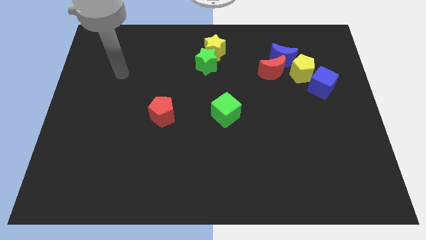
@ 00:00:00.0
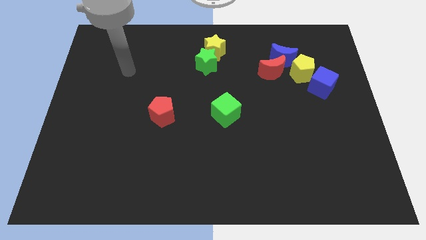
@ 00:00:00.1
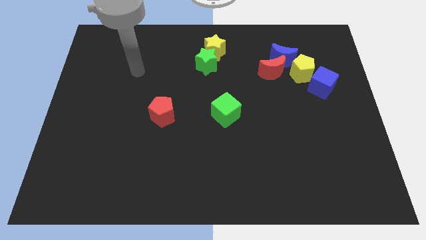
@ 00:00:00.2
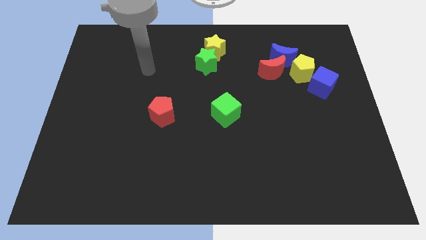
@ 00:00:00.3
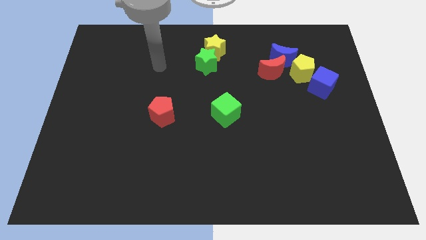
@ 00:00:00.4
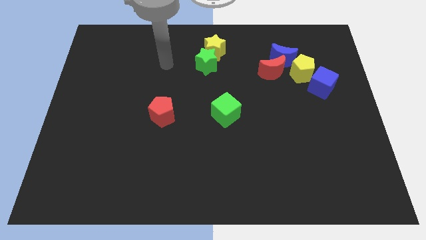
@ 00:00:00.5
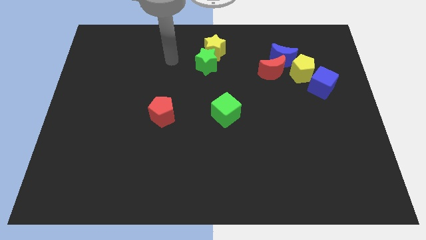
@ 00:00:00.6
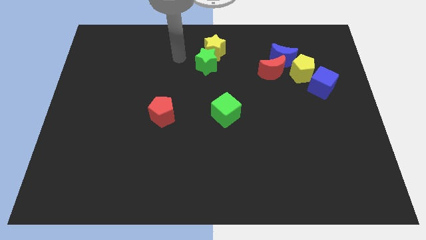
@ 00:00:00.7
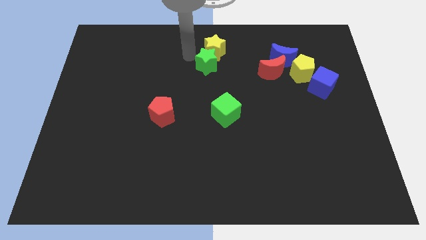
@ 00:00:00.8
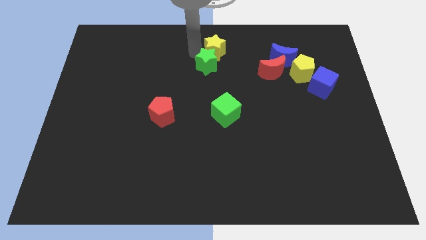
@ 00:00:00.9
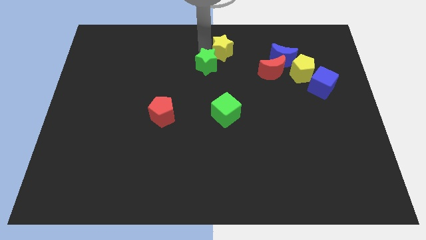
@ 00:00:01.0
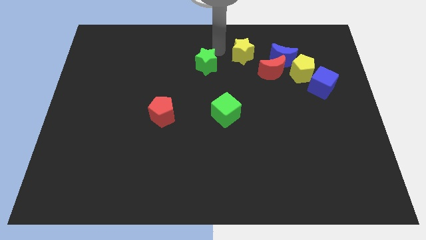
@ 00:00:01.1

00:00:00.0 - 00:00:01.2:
pull the green star apart from the yellow star

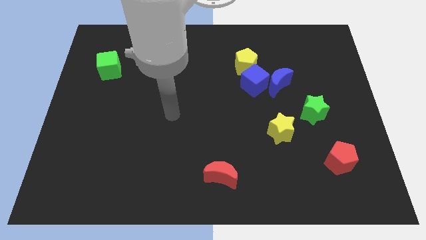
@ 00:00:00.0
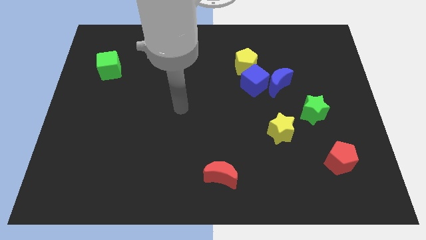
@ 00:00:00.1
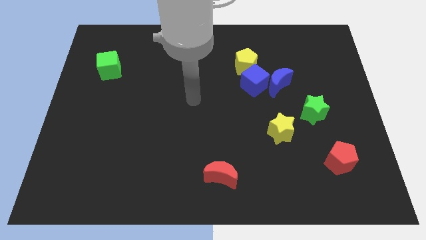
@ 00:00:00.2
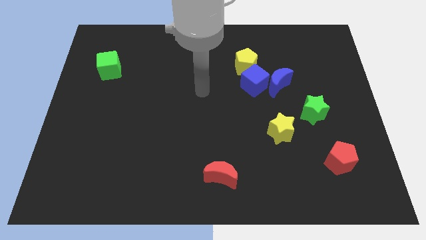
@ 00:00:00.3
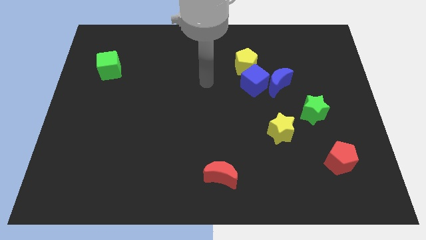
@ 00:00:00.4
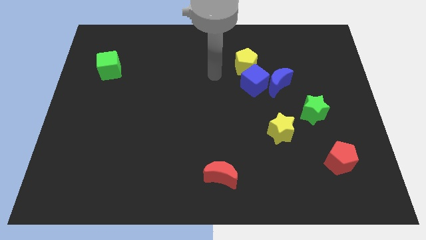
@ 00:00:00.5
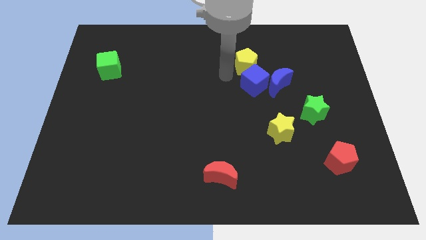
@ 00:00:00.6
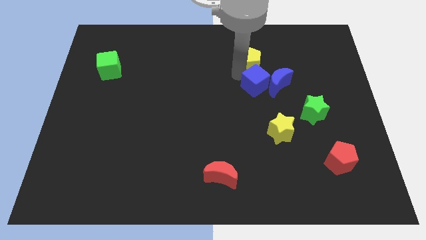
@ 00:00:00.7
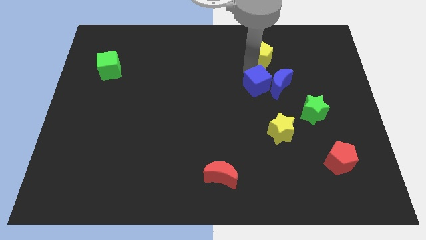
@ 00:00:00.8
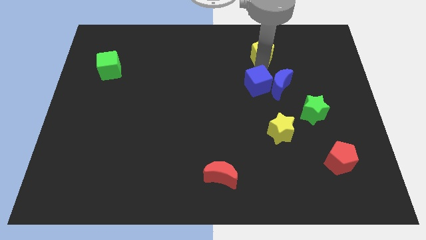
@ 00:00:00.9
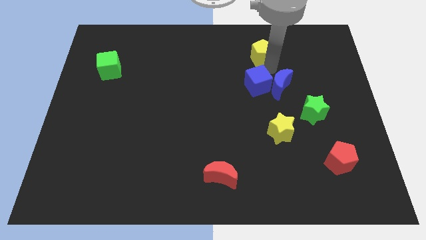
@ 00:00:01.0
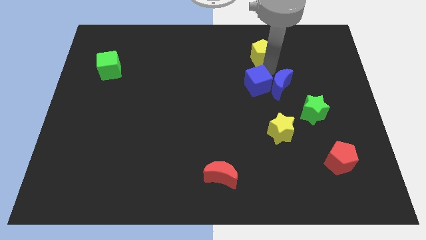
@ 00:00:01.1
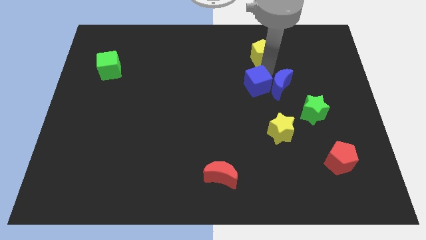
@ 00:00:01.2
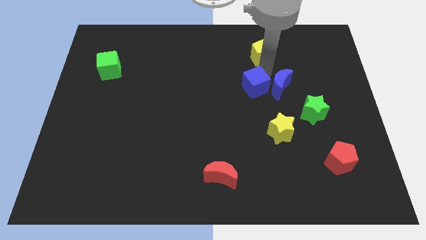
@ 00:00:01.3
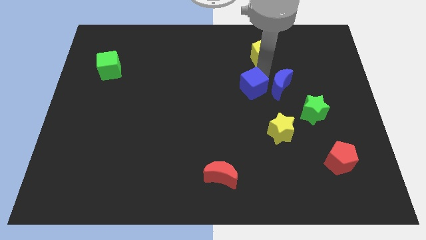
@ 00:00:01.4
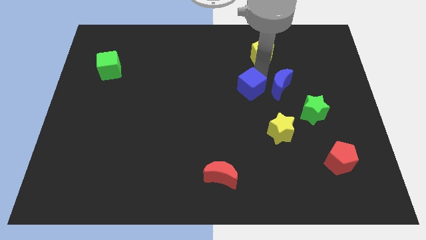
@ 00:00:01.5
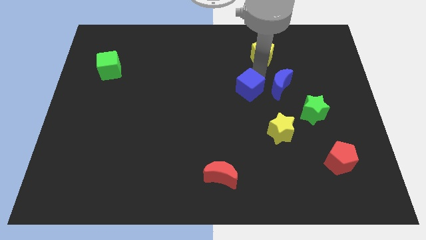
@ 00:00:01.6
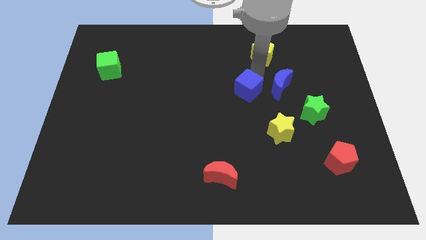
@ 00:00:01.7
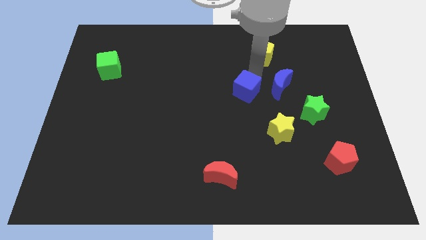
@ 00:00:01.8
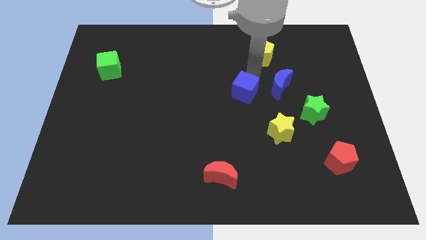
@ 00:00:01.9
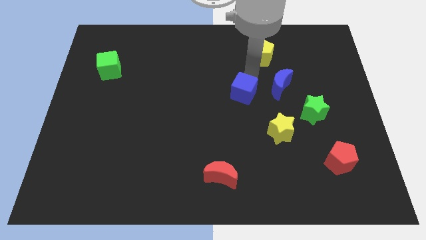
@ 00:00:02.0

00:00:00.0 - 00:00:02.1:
pull the blue cube apart from the blue moon and yellow pentagon

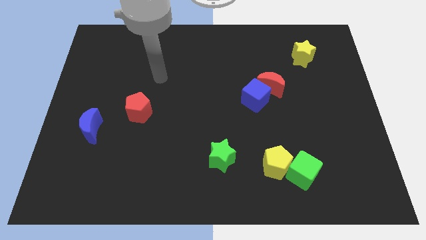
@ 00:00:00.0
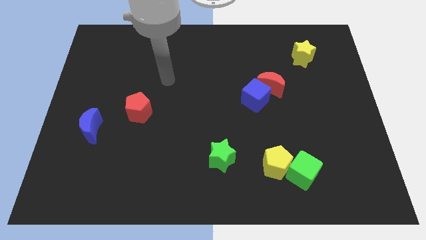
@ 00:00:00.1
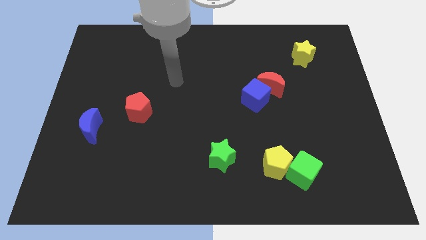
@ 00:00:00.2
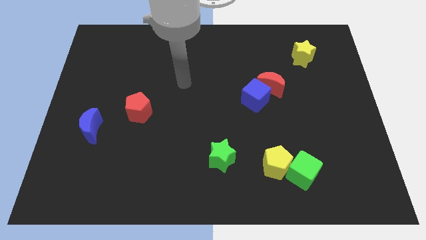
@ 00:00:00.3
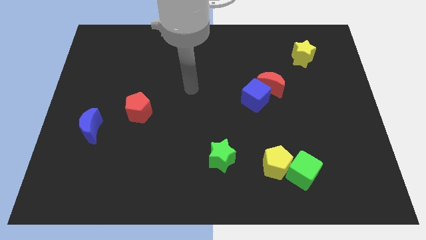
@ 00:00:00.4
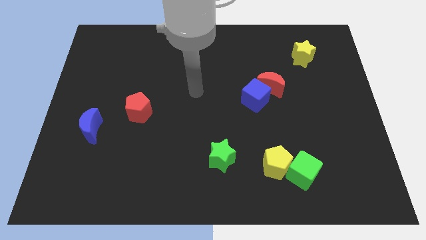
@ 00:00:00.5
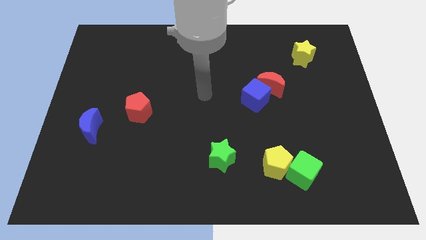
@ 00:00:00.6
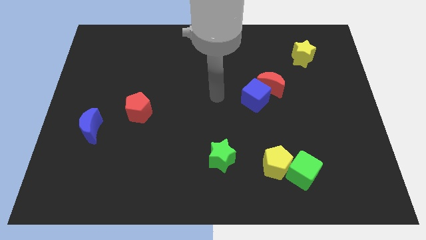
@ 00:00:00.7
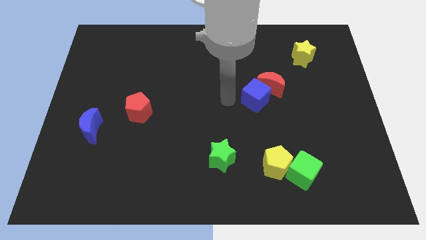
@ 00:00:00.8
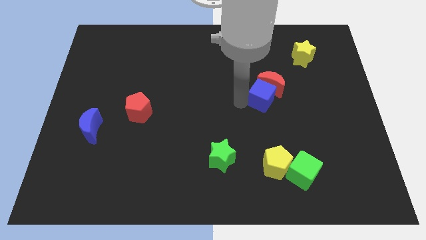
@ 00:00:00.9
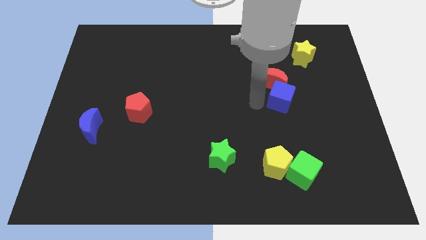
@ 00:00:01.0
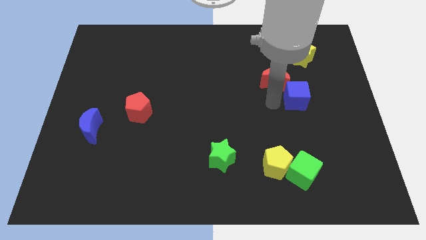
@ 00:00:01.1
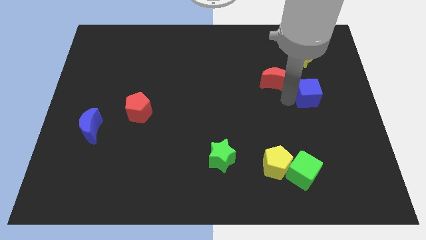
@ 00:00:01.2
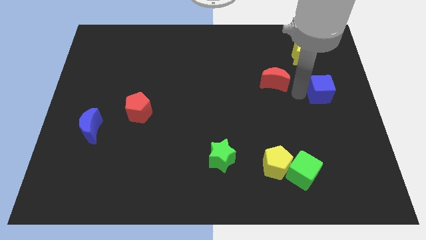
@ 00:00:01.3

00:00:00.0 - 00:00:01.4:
move the red moon away from the blue cube

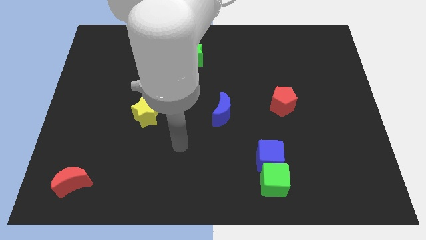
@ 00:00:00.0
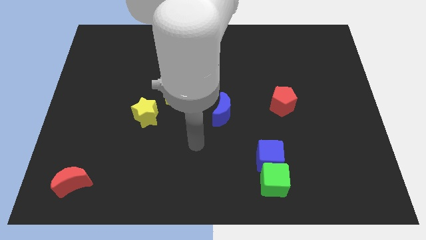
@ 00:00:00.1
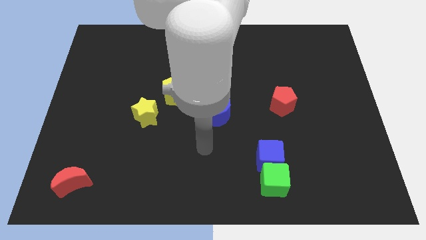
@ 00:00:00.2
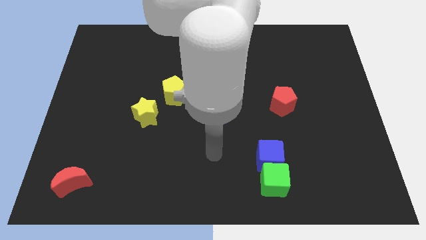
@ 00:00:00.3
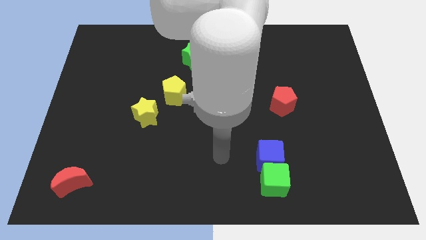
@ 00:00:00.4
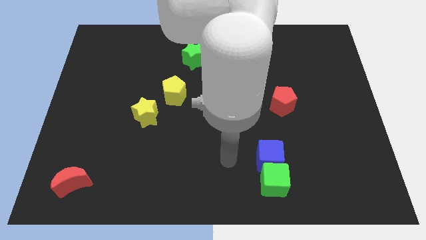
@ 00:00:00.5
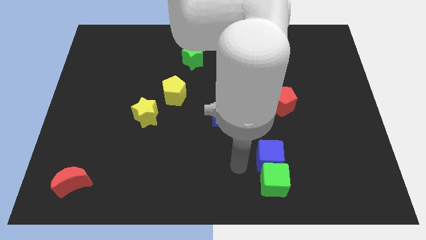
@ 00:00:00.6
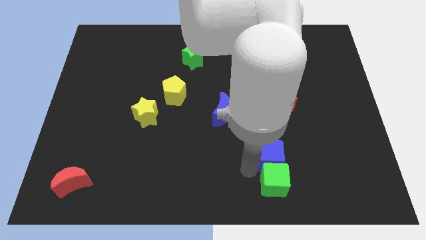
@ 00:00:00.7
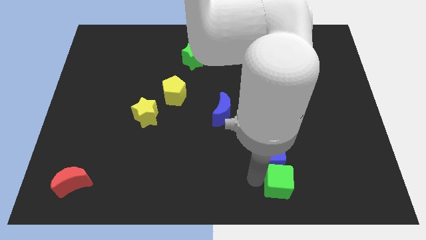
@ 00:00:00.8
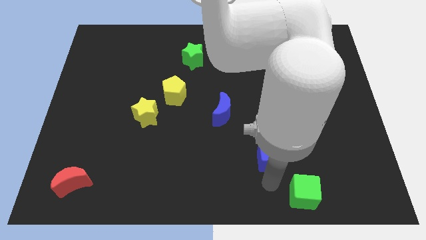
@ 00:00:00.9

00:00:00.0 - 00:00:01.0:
pull the blue cube apart from the green cube

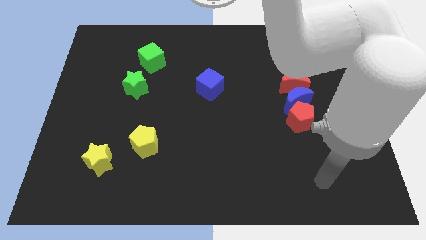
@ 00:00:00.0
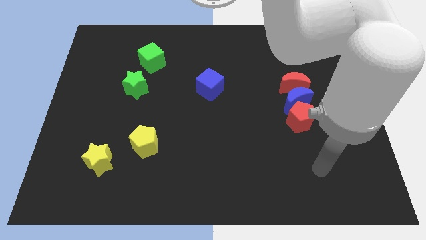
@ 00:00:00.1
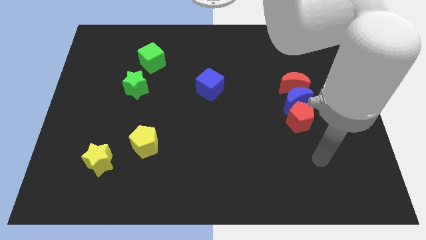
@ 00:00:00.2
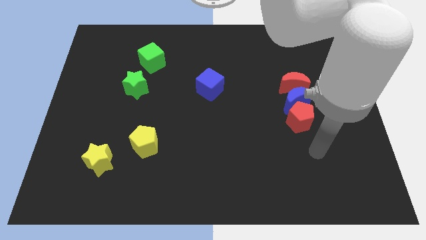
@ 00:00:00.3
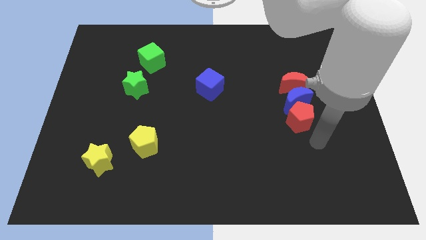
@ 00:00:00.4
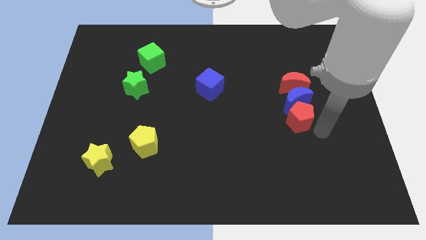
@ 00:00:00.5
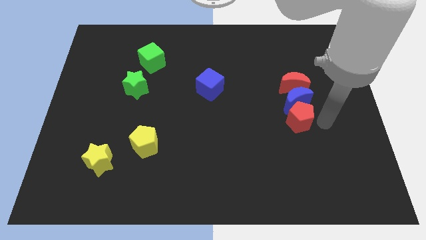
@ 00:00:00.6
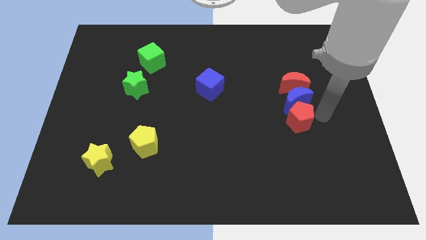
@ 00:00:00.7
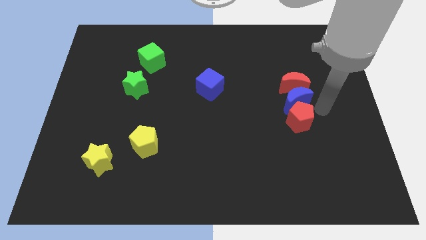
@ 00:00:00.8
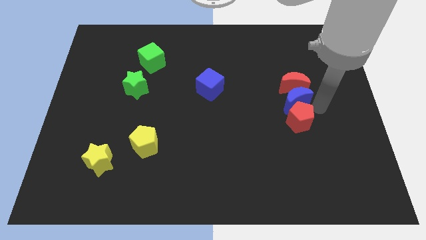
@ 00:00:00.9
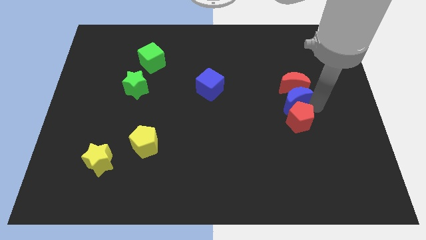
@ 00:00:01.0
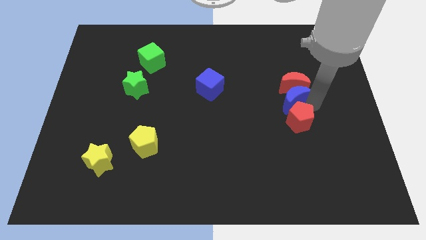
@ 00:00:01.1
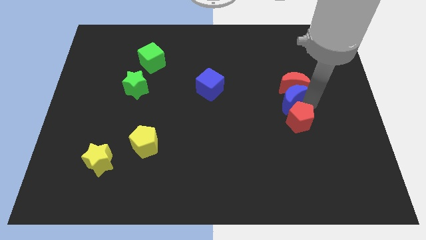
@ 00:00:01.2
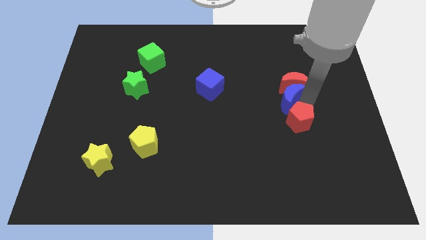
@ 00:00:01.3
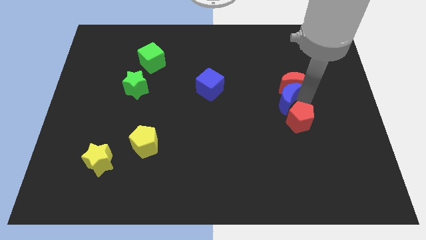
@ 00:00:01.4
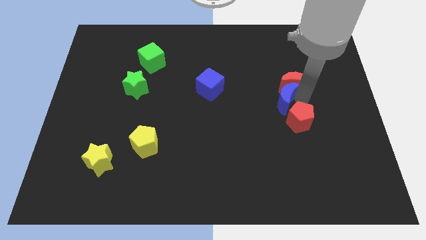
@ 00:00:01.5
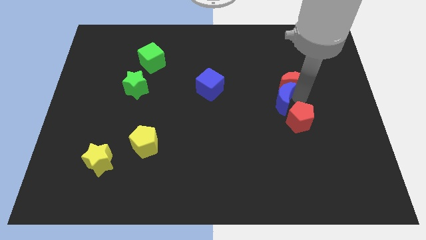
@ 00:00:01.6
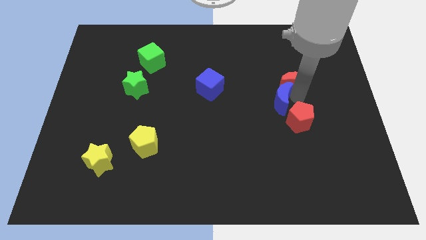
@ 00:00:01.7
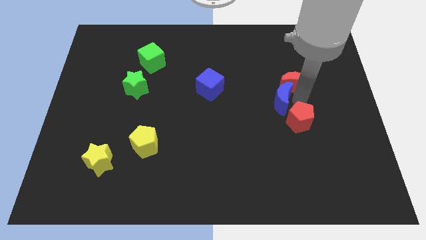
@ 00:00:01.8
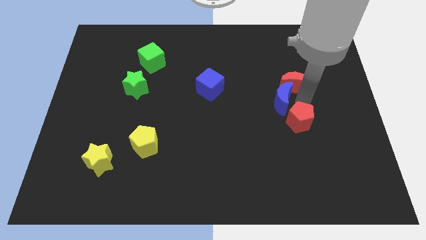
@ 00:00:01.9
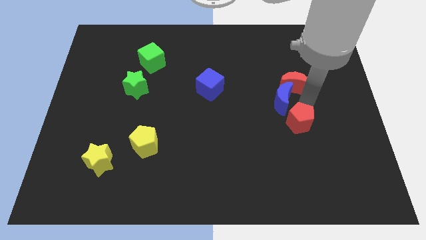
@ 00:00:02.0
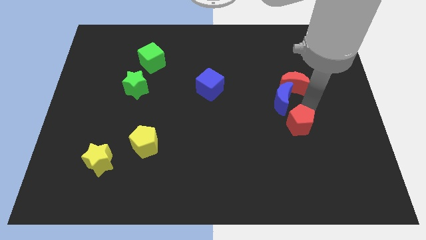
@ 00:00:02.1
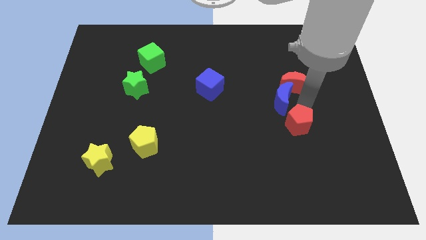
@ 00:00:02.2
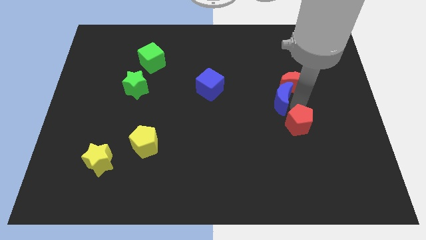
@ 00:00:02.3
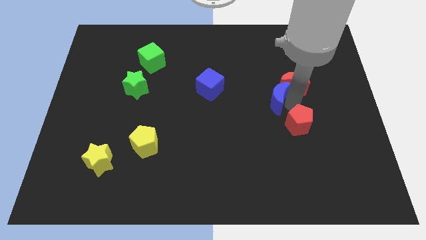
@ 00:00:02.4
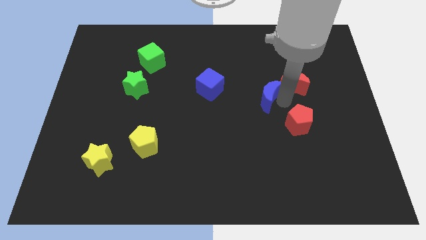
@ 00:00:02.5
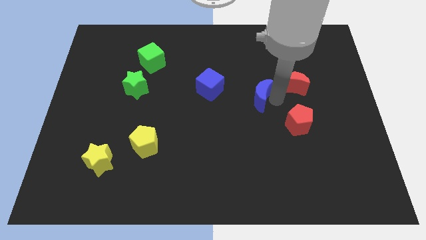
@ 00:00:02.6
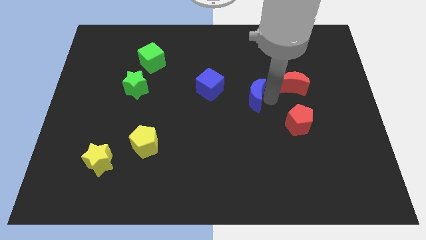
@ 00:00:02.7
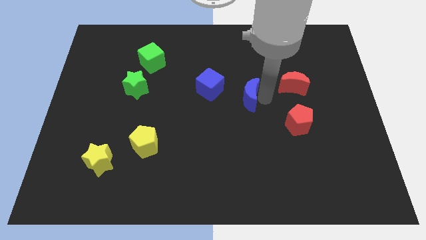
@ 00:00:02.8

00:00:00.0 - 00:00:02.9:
pull the blue moon apart from the red moon and red pentagon

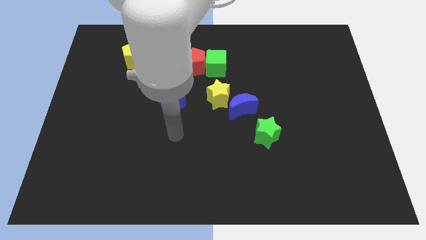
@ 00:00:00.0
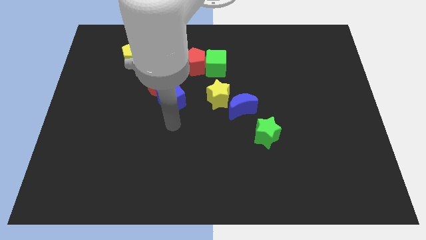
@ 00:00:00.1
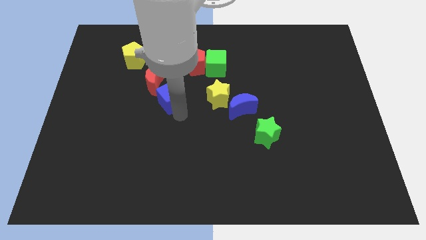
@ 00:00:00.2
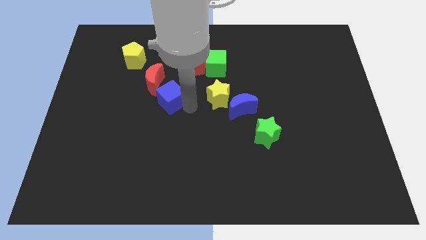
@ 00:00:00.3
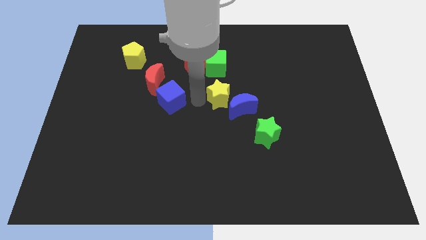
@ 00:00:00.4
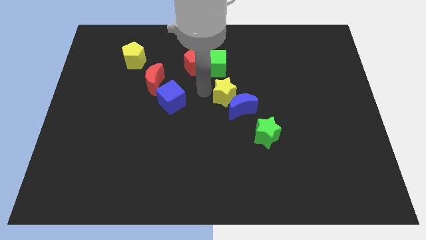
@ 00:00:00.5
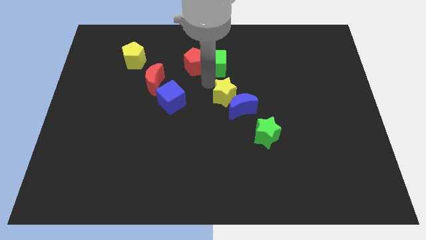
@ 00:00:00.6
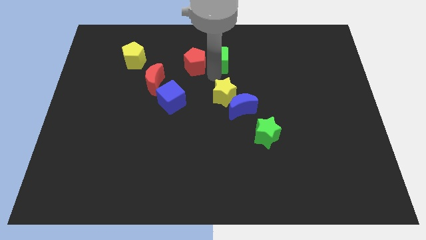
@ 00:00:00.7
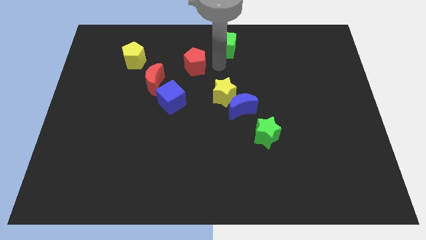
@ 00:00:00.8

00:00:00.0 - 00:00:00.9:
pull the red pentagon apart from the green cube
